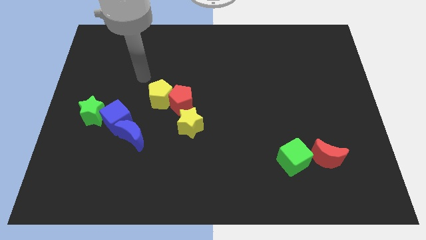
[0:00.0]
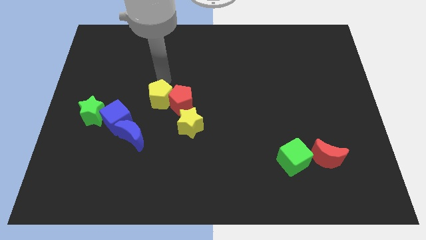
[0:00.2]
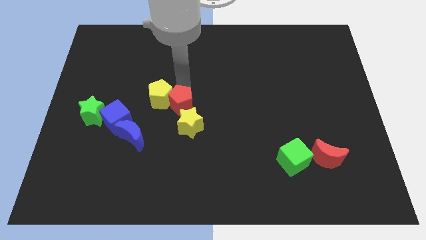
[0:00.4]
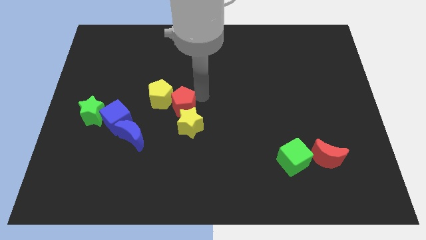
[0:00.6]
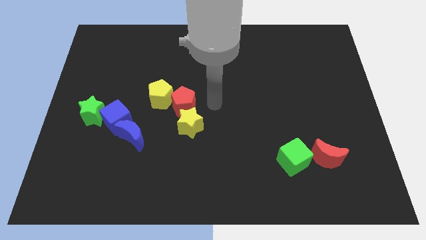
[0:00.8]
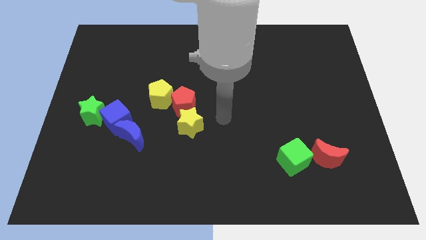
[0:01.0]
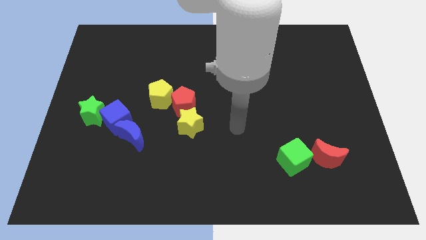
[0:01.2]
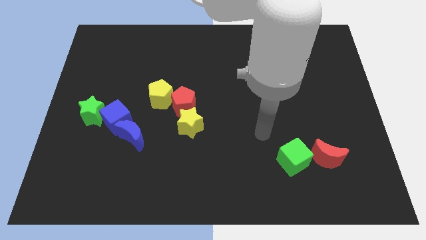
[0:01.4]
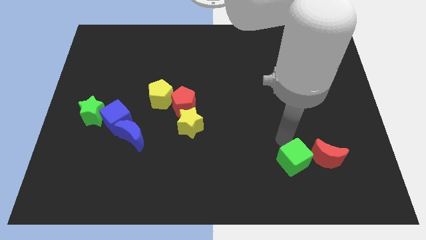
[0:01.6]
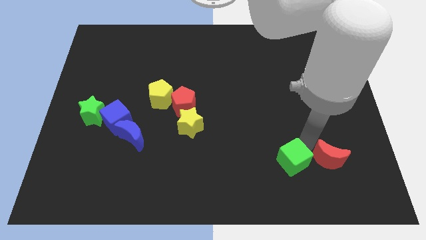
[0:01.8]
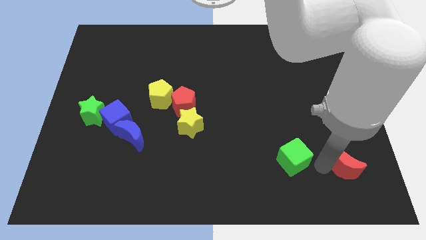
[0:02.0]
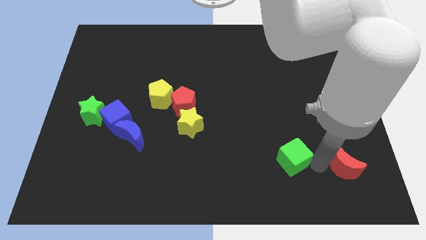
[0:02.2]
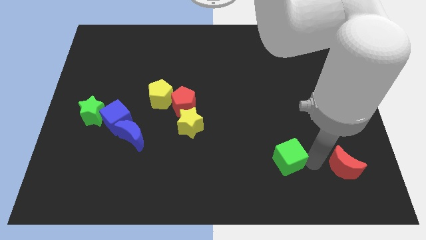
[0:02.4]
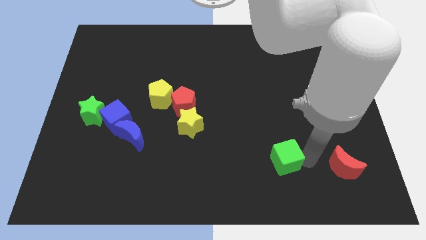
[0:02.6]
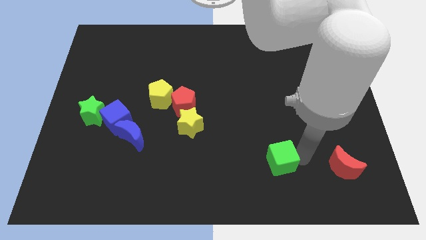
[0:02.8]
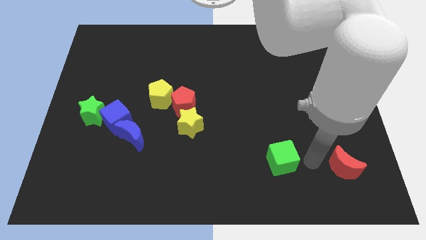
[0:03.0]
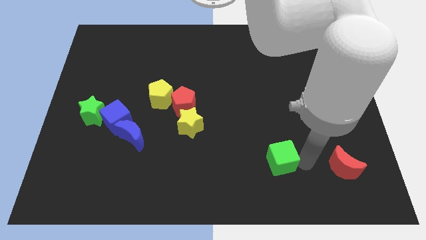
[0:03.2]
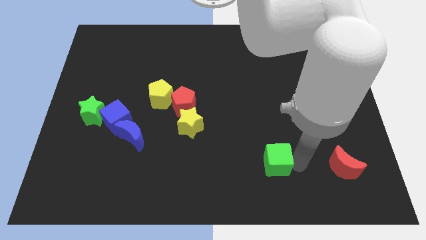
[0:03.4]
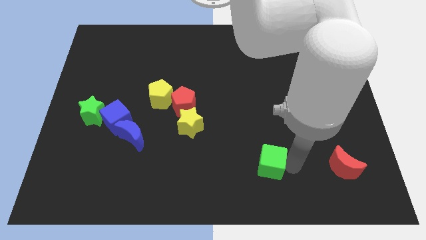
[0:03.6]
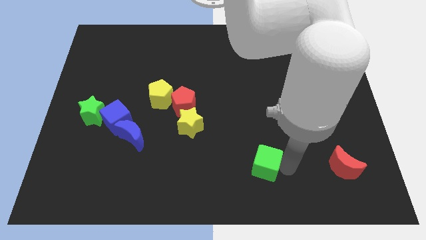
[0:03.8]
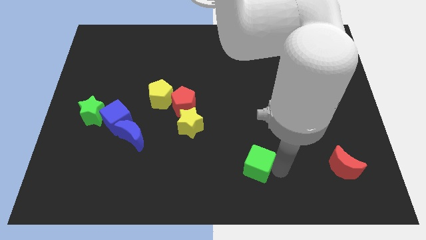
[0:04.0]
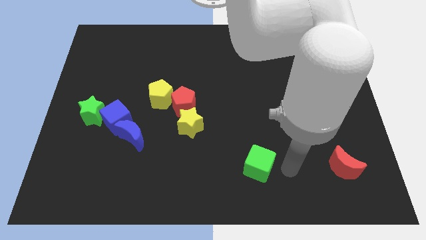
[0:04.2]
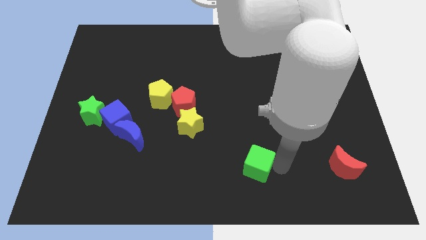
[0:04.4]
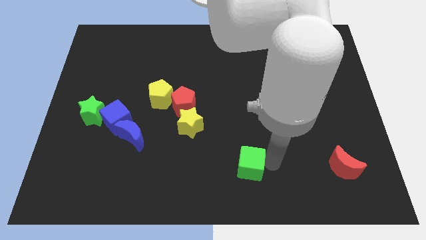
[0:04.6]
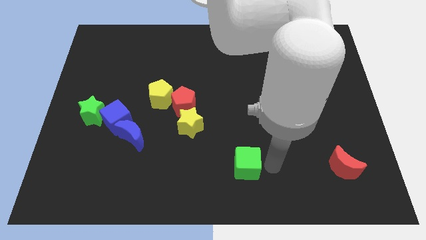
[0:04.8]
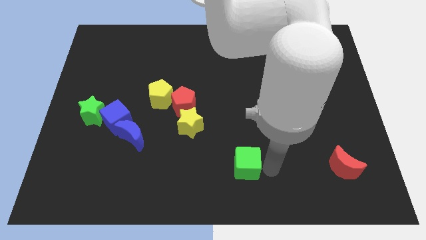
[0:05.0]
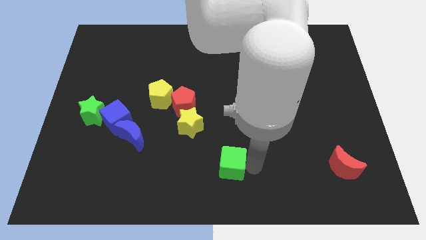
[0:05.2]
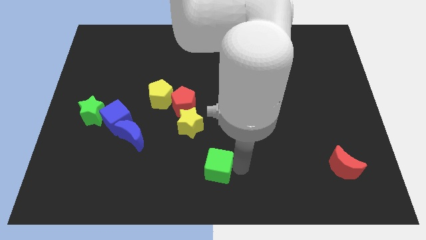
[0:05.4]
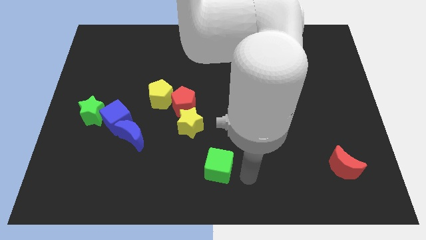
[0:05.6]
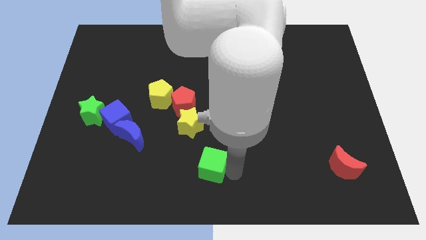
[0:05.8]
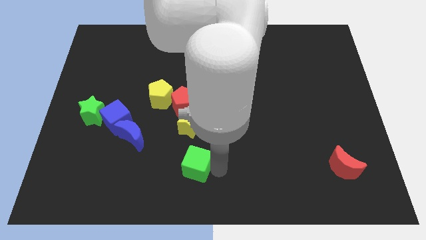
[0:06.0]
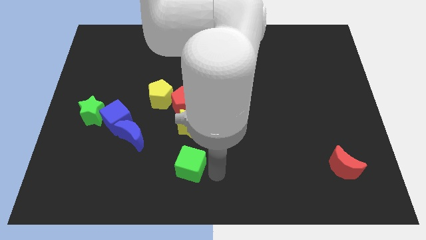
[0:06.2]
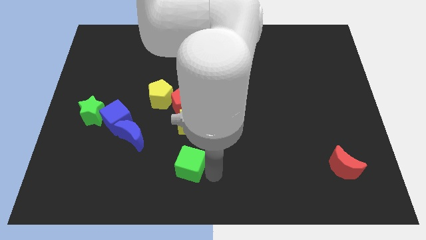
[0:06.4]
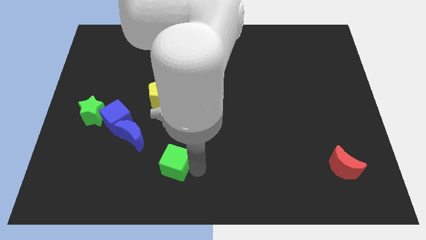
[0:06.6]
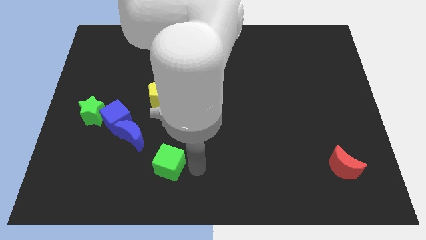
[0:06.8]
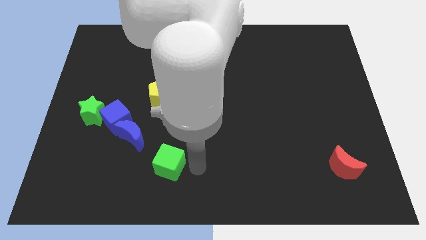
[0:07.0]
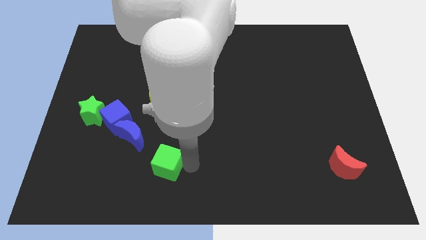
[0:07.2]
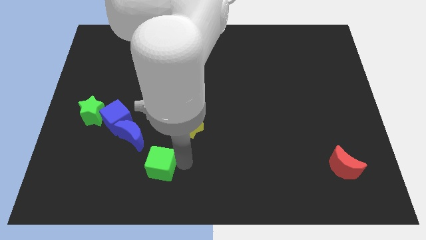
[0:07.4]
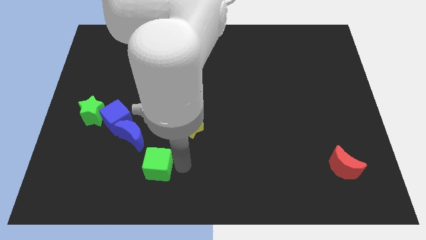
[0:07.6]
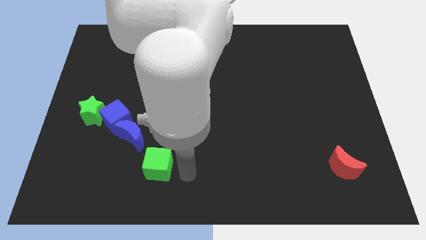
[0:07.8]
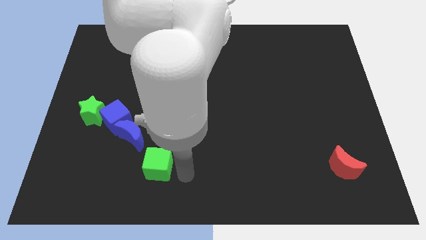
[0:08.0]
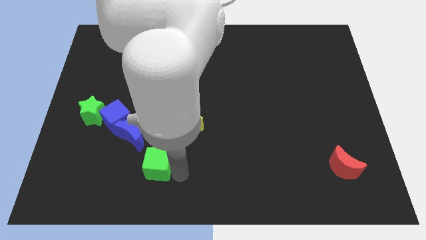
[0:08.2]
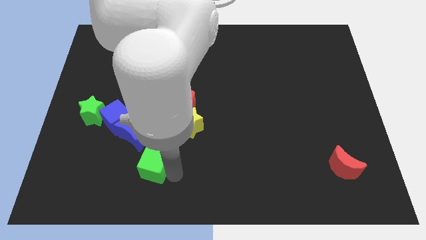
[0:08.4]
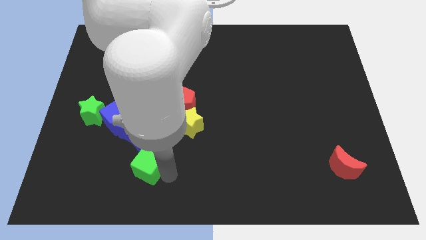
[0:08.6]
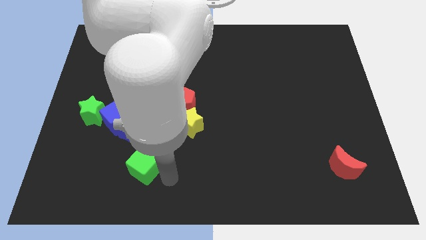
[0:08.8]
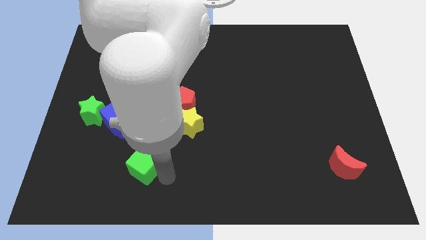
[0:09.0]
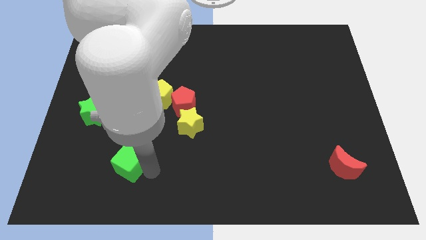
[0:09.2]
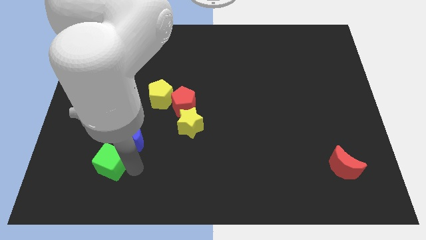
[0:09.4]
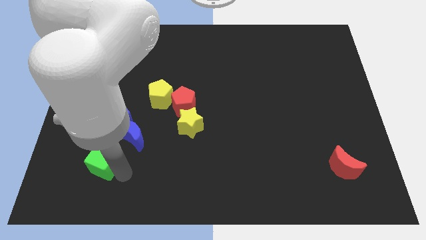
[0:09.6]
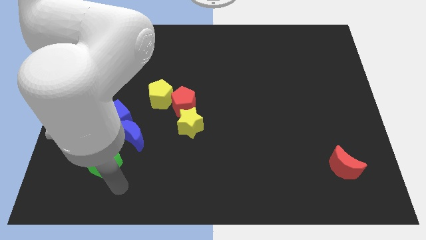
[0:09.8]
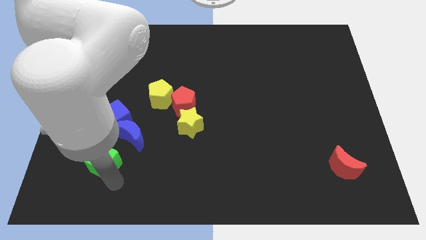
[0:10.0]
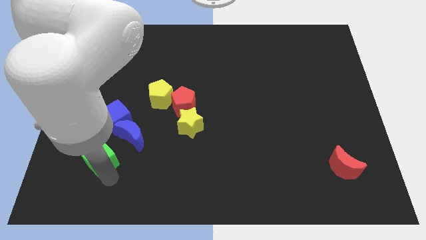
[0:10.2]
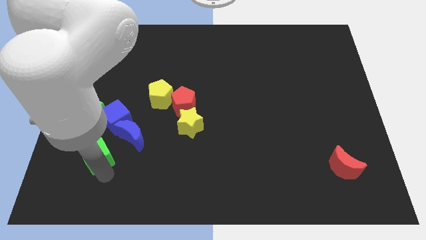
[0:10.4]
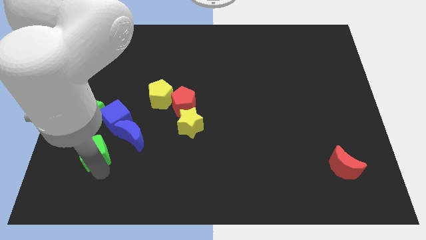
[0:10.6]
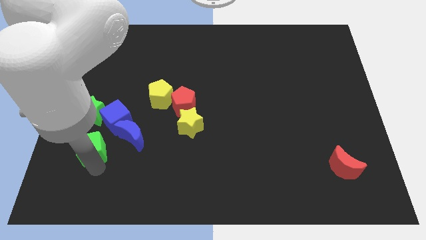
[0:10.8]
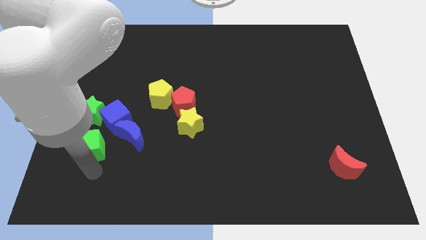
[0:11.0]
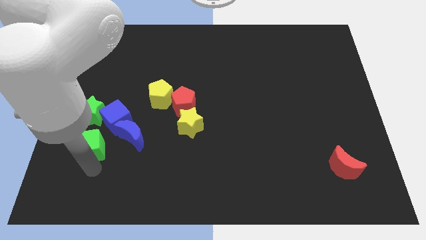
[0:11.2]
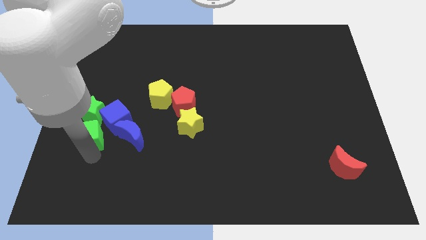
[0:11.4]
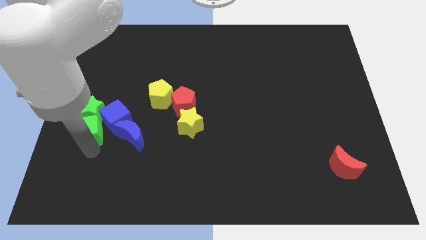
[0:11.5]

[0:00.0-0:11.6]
push the green cube next to the green star

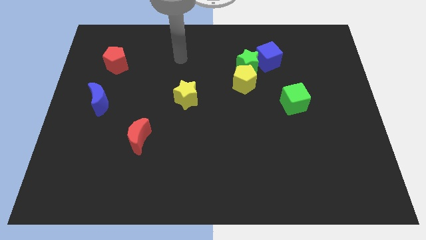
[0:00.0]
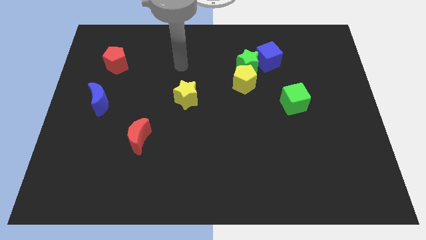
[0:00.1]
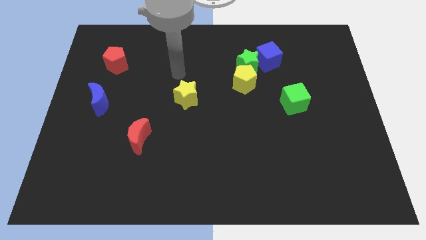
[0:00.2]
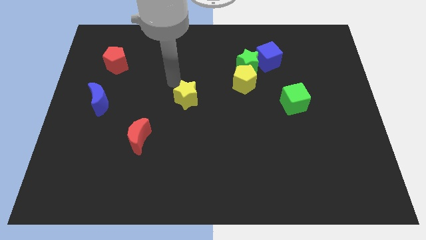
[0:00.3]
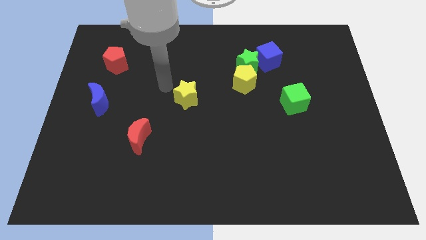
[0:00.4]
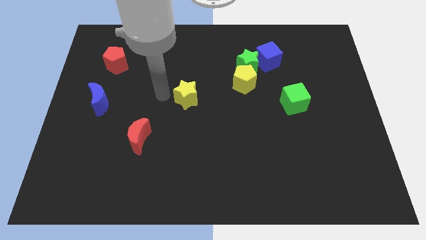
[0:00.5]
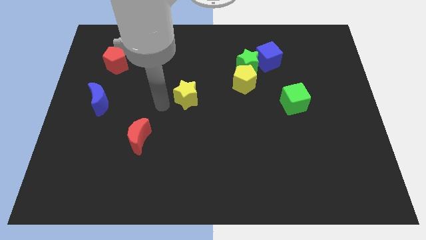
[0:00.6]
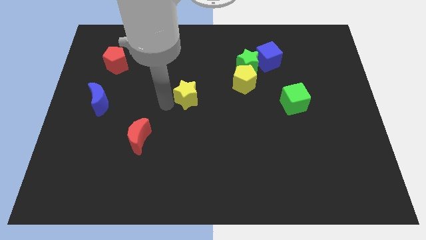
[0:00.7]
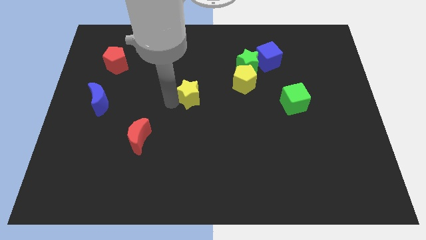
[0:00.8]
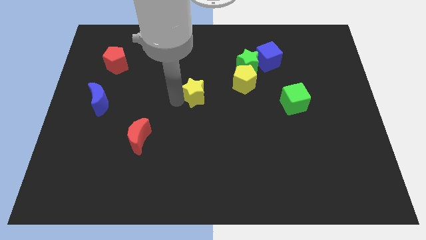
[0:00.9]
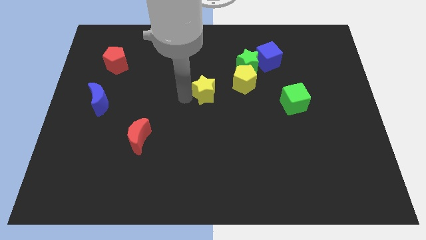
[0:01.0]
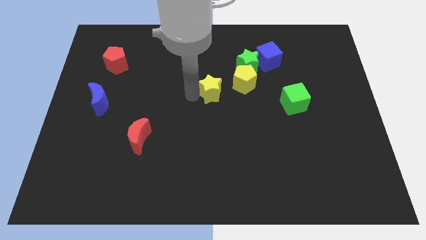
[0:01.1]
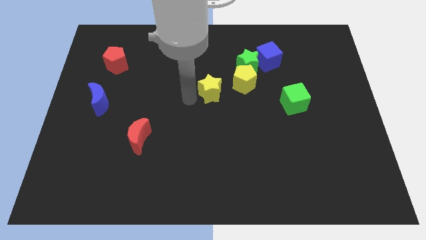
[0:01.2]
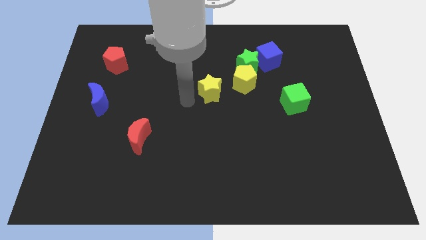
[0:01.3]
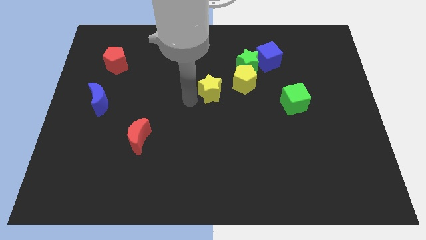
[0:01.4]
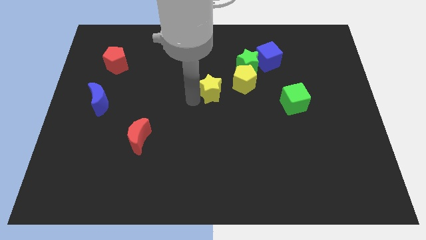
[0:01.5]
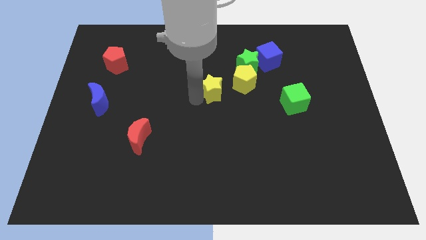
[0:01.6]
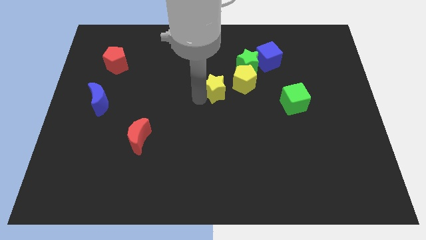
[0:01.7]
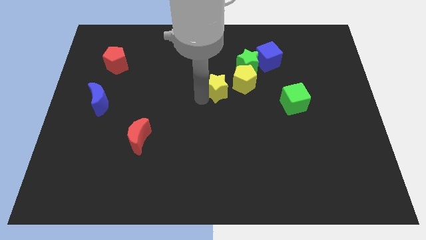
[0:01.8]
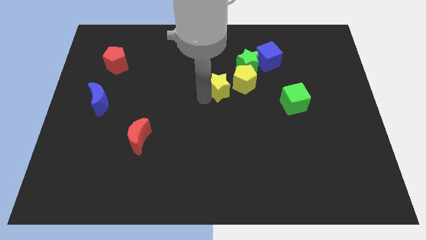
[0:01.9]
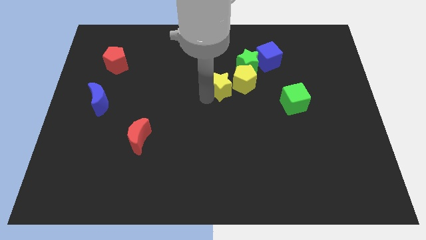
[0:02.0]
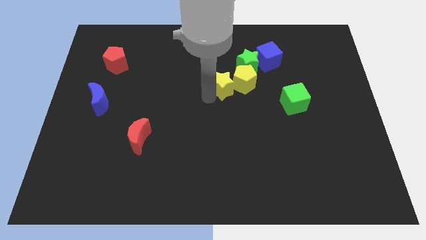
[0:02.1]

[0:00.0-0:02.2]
push the yellow star to the yellow pentagon
